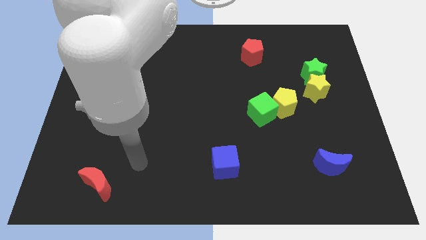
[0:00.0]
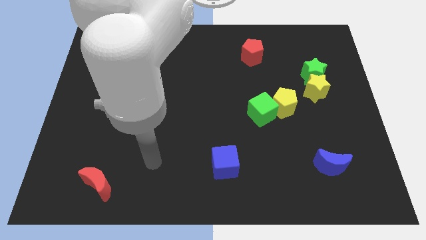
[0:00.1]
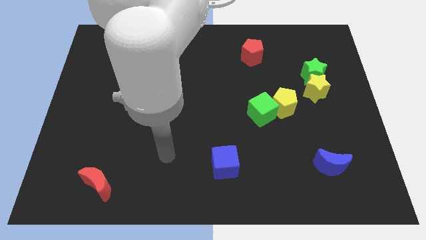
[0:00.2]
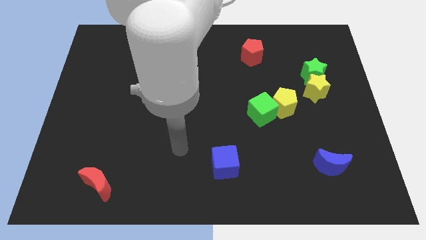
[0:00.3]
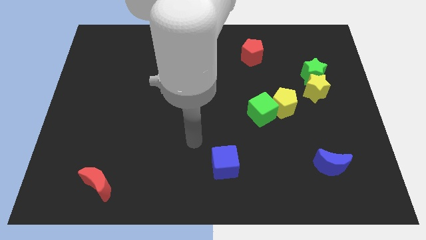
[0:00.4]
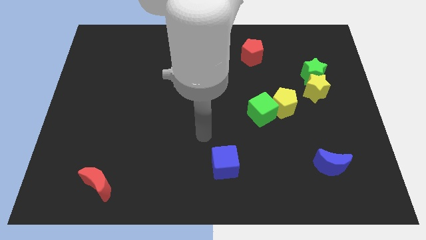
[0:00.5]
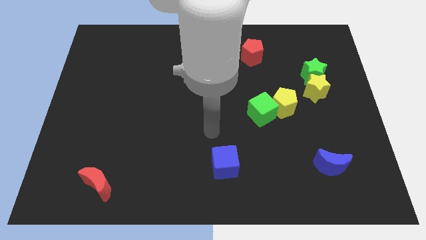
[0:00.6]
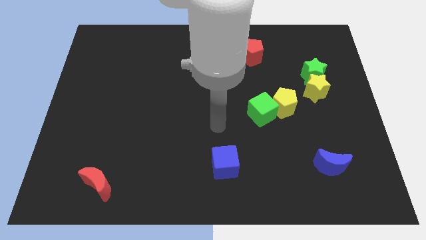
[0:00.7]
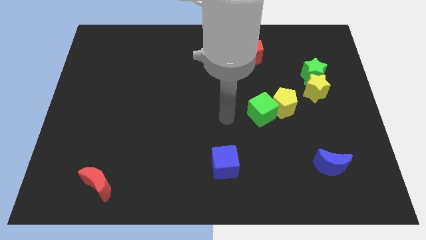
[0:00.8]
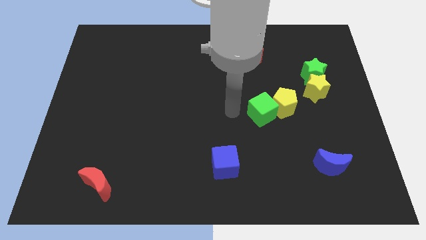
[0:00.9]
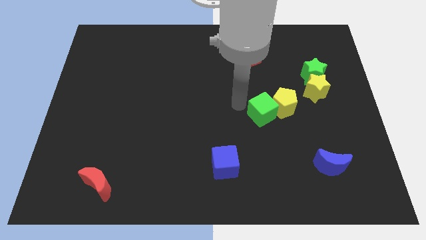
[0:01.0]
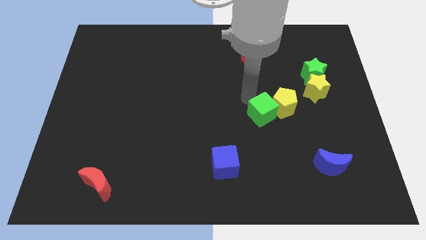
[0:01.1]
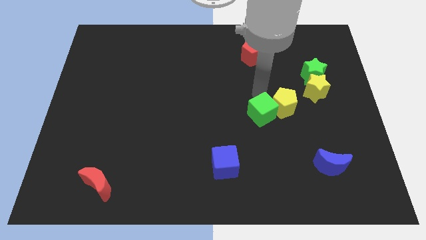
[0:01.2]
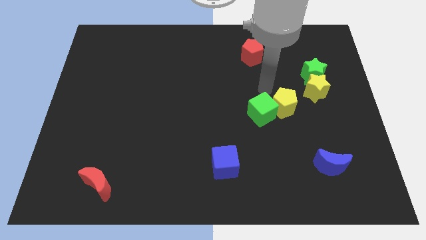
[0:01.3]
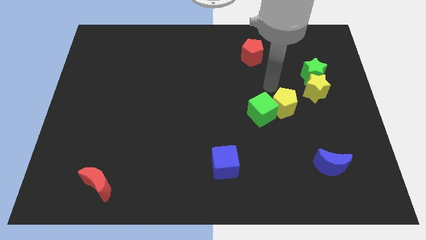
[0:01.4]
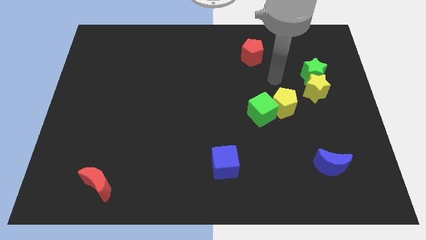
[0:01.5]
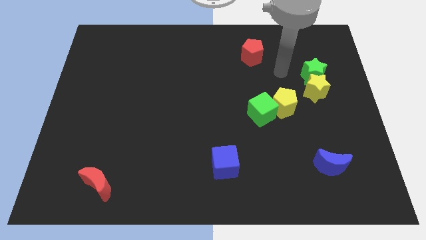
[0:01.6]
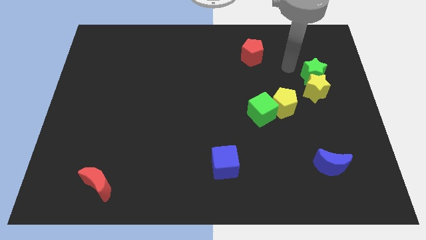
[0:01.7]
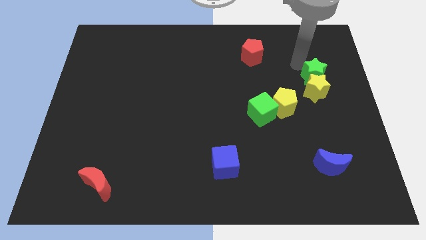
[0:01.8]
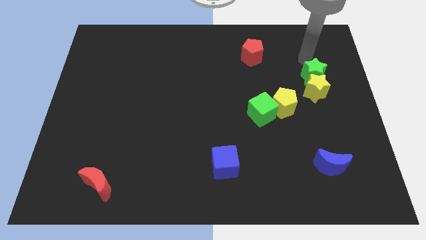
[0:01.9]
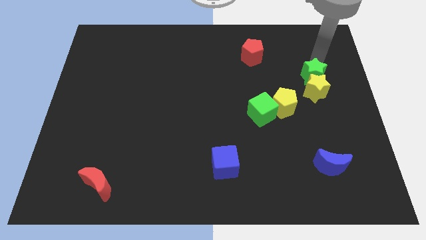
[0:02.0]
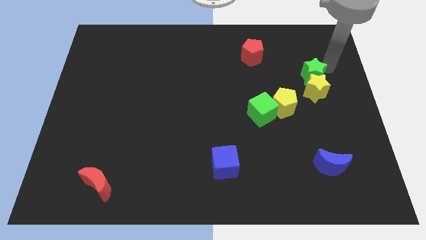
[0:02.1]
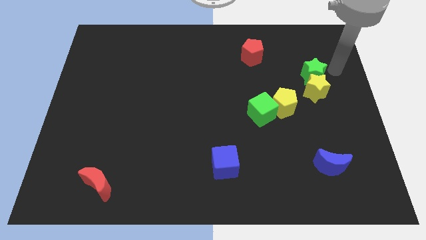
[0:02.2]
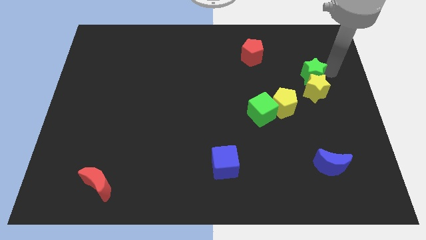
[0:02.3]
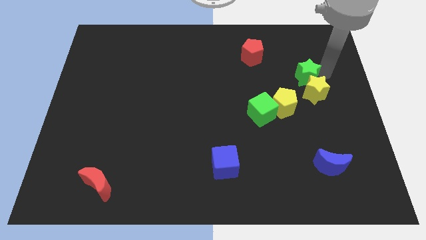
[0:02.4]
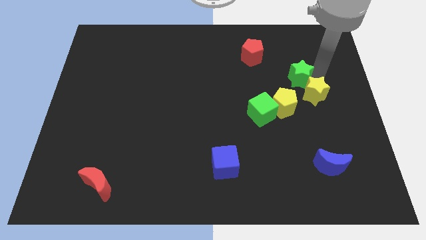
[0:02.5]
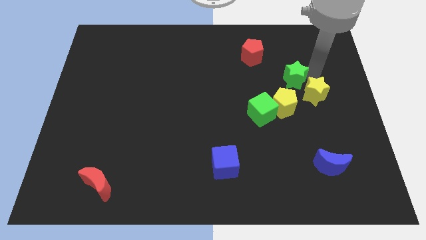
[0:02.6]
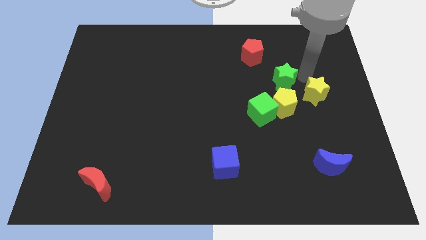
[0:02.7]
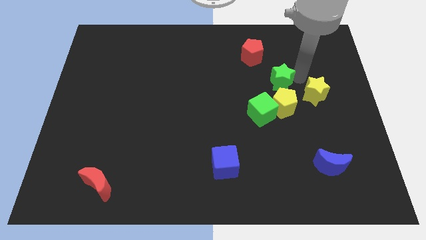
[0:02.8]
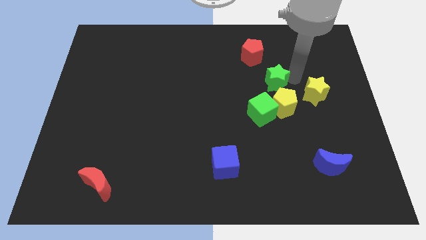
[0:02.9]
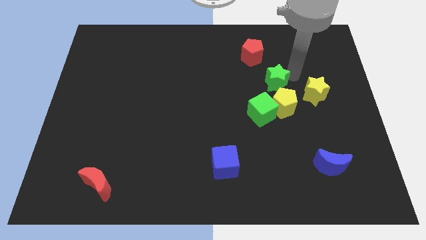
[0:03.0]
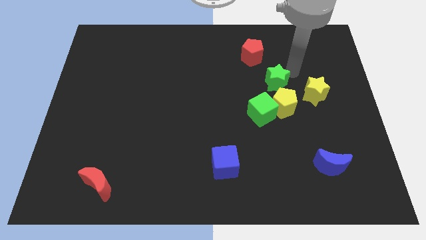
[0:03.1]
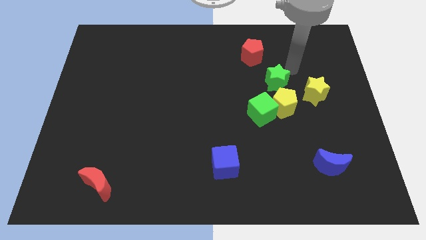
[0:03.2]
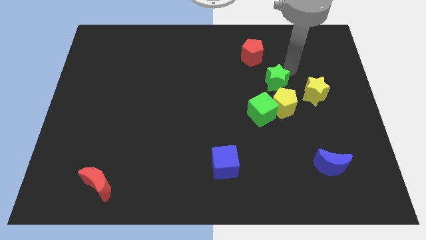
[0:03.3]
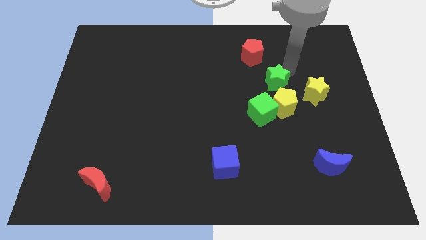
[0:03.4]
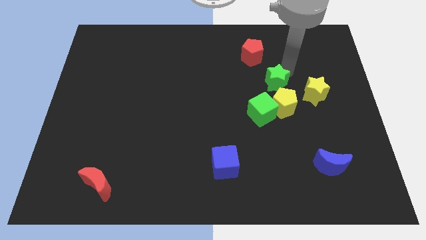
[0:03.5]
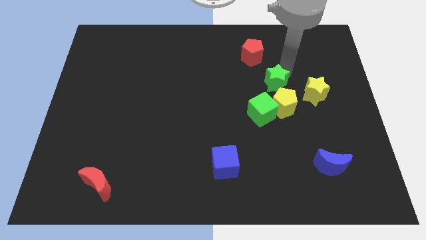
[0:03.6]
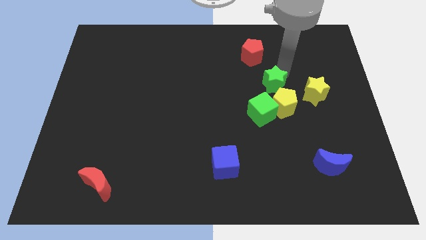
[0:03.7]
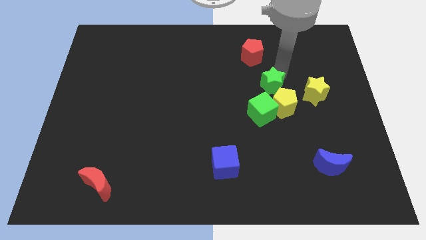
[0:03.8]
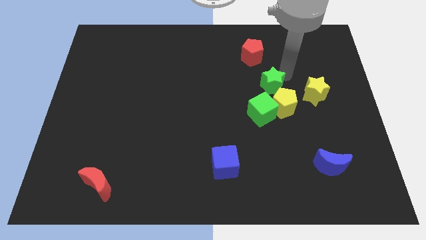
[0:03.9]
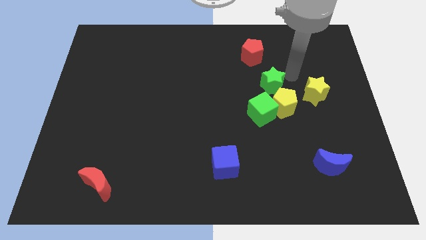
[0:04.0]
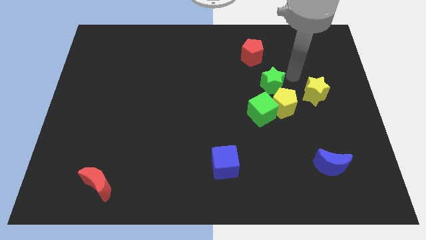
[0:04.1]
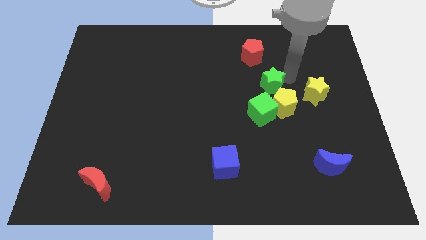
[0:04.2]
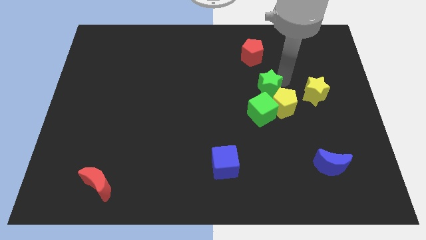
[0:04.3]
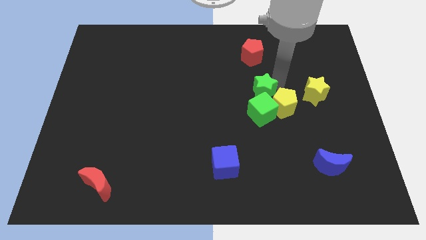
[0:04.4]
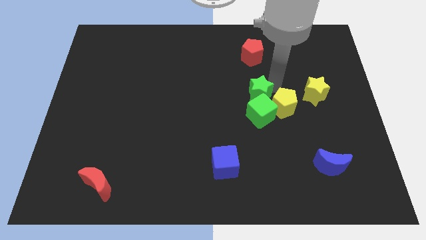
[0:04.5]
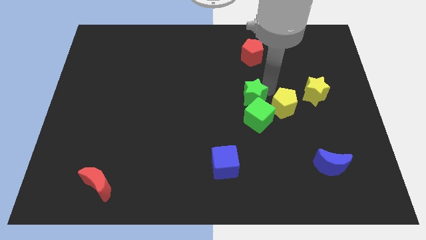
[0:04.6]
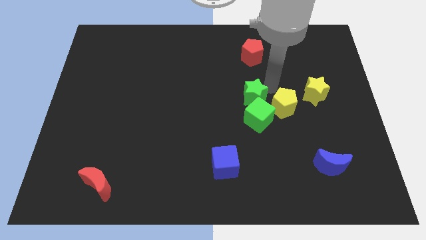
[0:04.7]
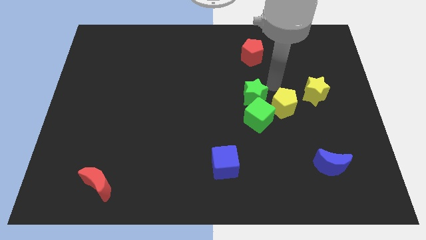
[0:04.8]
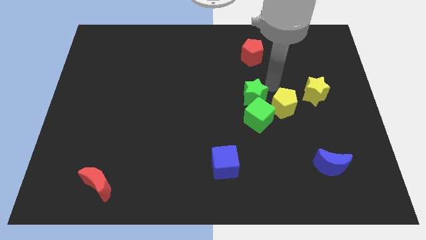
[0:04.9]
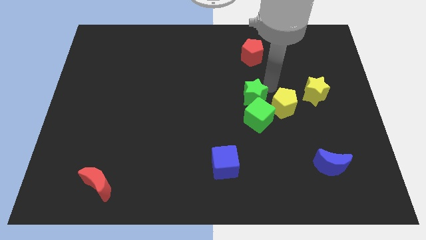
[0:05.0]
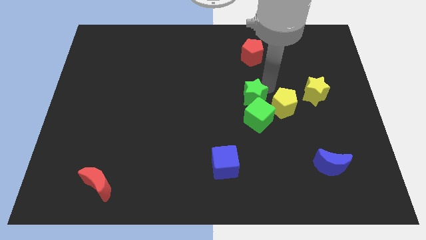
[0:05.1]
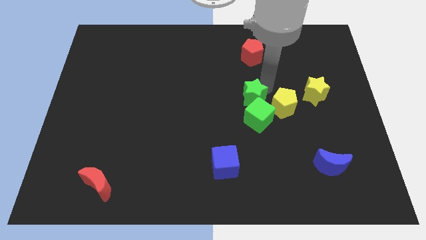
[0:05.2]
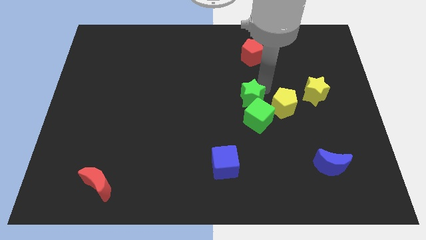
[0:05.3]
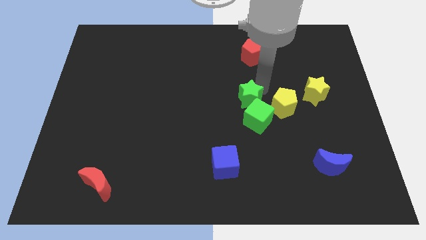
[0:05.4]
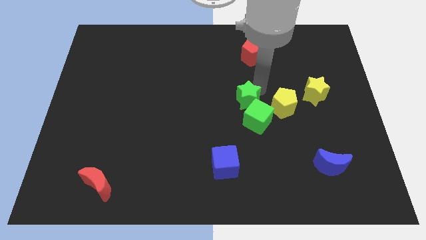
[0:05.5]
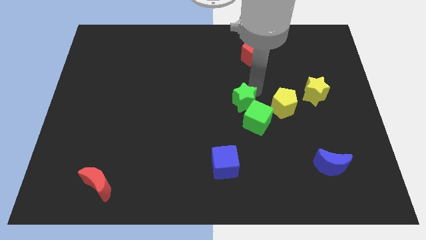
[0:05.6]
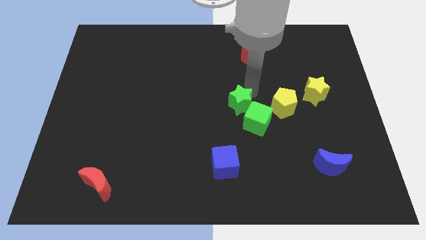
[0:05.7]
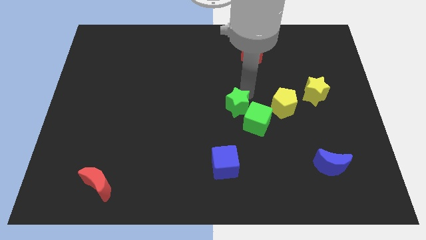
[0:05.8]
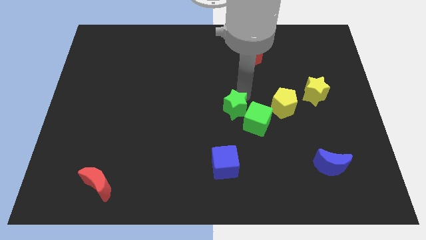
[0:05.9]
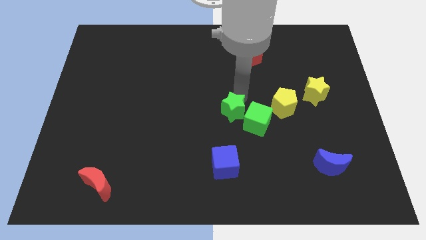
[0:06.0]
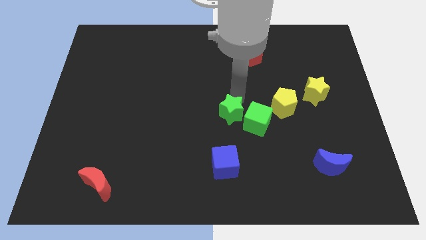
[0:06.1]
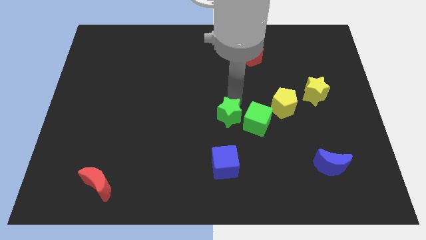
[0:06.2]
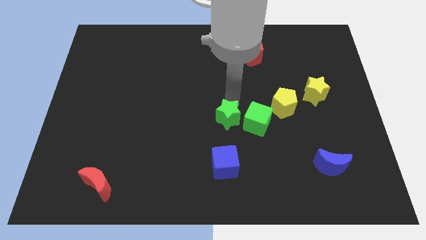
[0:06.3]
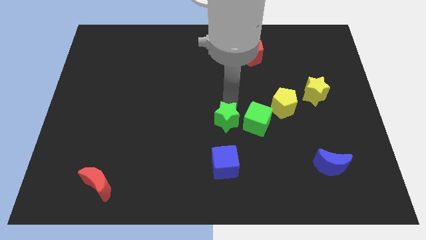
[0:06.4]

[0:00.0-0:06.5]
put the green star to the bottom left of the green cube
